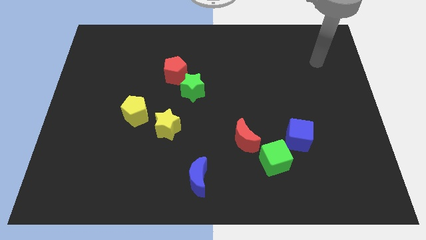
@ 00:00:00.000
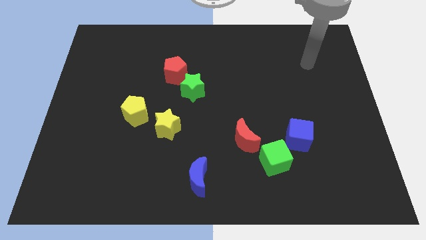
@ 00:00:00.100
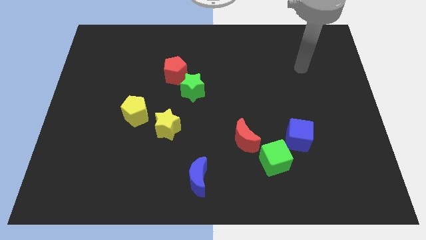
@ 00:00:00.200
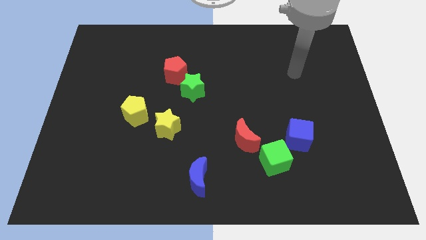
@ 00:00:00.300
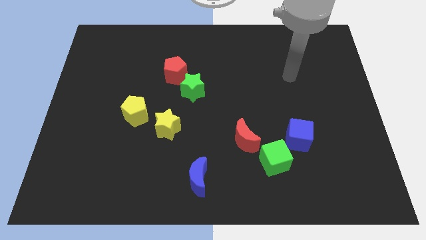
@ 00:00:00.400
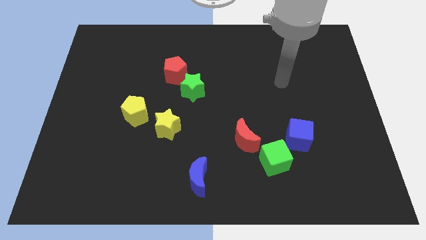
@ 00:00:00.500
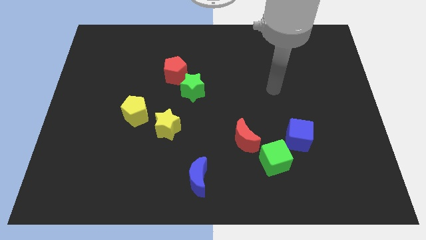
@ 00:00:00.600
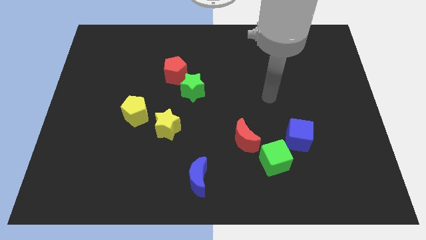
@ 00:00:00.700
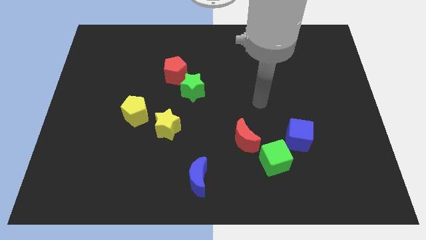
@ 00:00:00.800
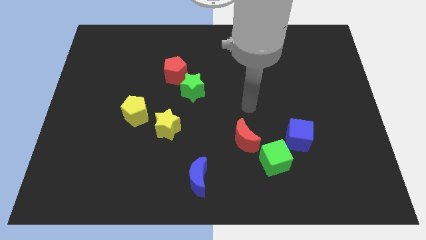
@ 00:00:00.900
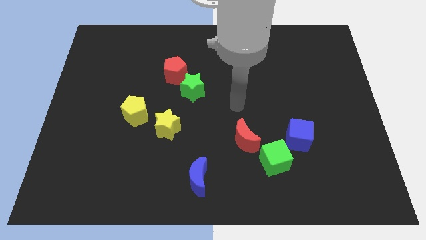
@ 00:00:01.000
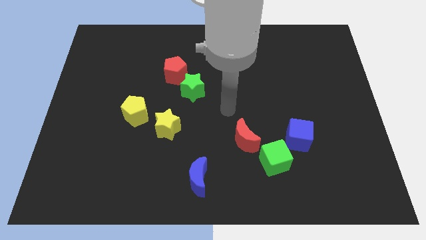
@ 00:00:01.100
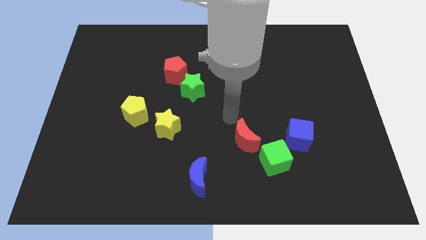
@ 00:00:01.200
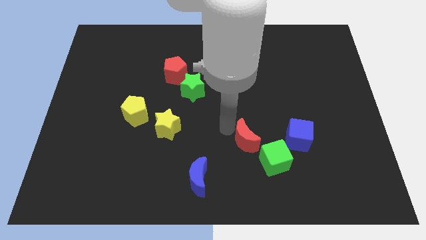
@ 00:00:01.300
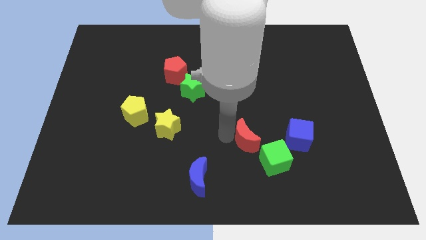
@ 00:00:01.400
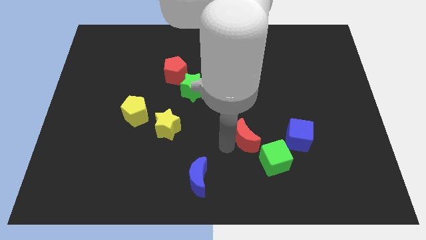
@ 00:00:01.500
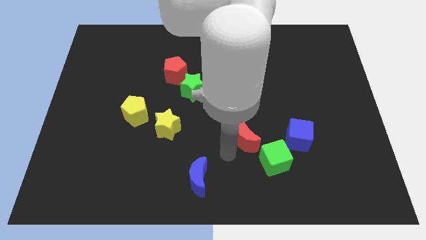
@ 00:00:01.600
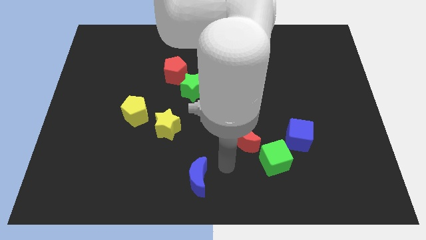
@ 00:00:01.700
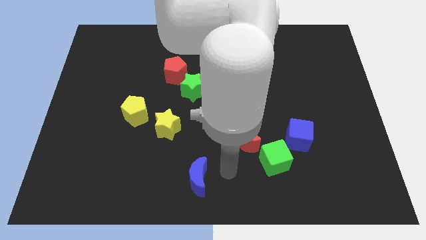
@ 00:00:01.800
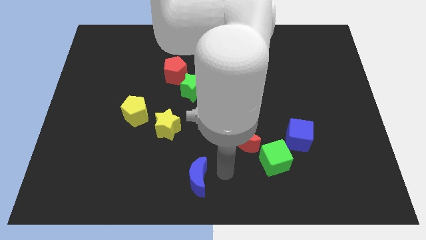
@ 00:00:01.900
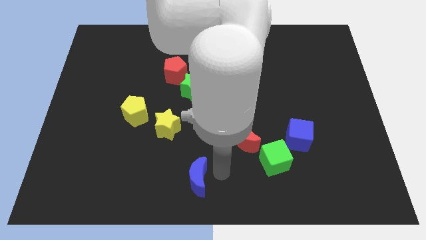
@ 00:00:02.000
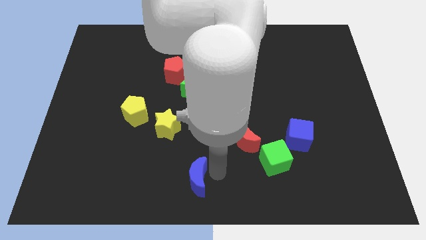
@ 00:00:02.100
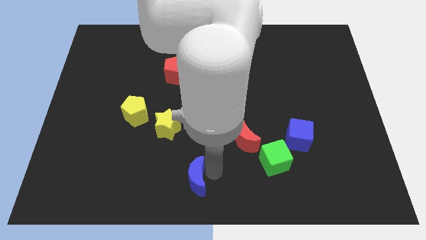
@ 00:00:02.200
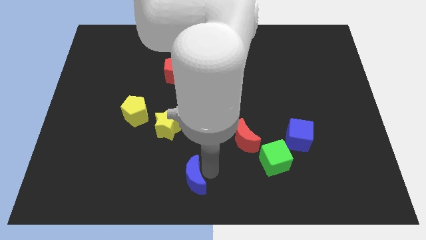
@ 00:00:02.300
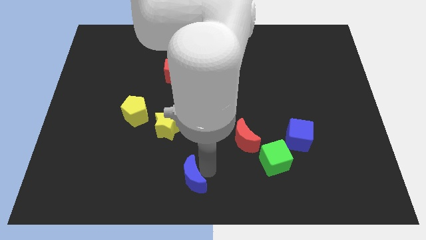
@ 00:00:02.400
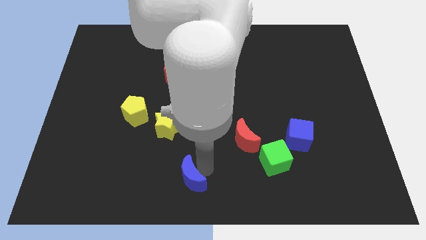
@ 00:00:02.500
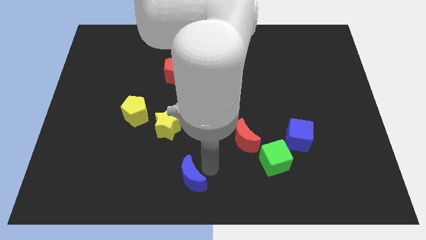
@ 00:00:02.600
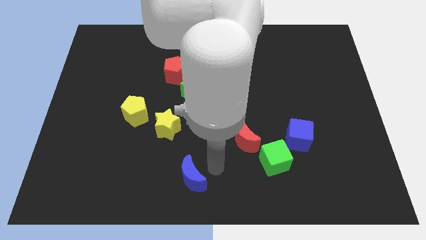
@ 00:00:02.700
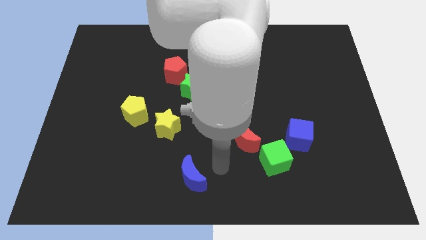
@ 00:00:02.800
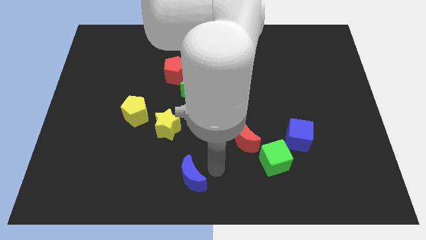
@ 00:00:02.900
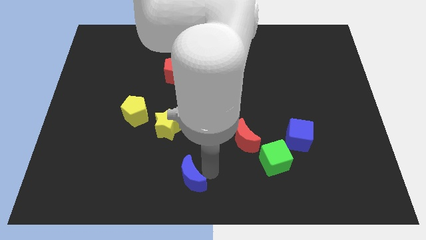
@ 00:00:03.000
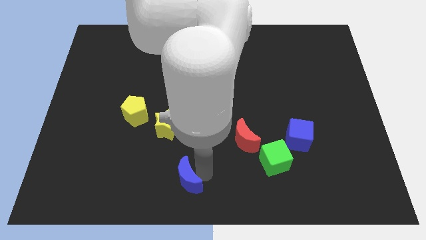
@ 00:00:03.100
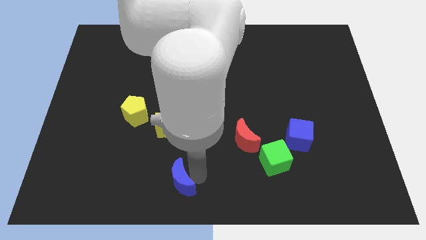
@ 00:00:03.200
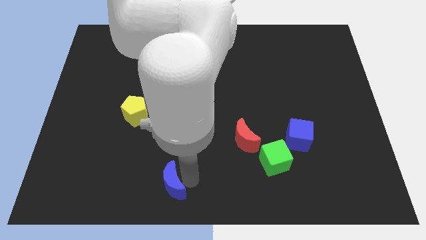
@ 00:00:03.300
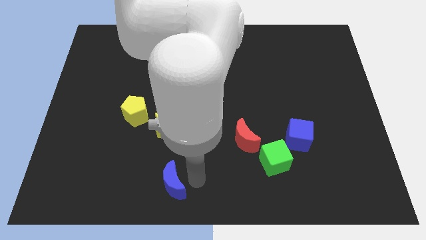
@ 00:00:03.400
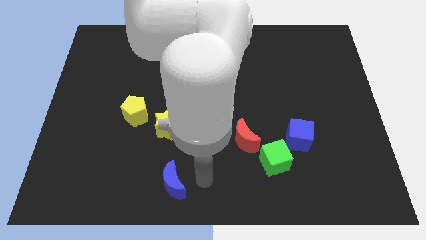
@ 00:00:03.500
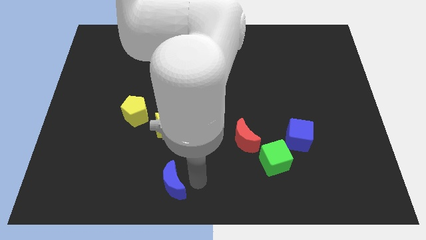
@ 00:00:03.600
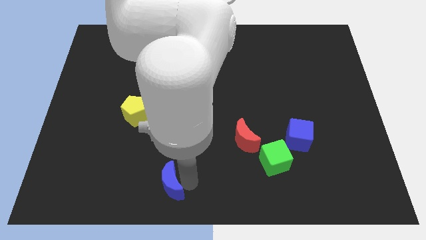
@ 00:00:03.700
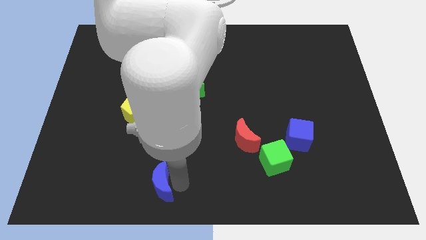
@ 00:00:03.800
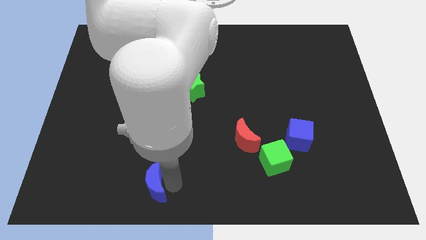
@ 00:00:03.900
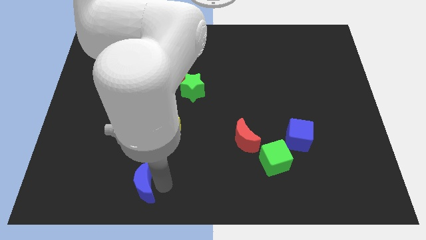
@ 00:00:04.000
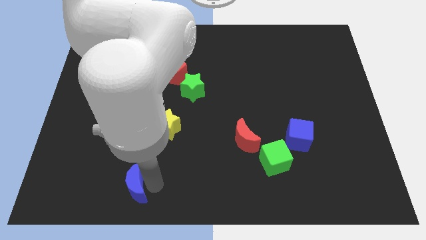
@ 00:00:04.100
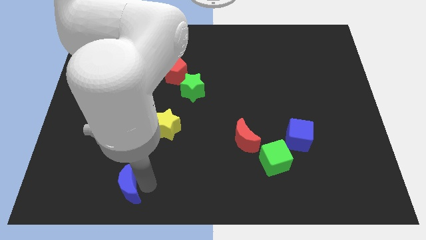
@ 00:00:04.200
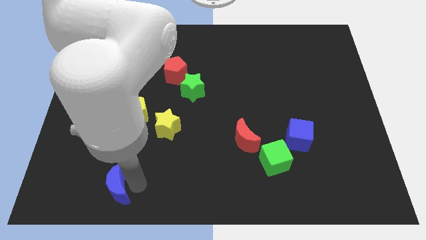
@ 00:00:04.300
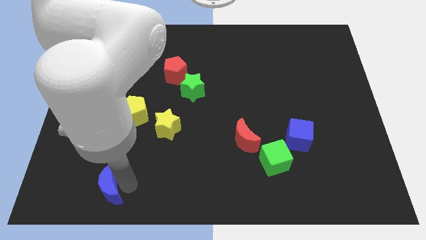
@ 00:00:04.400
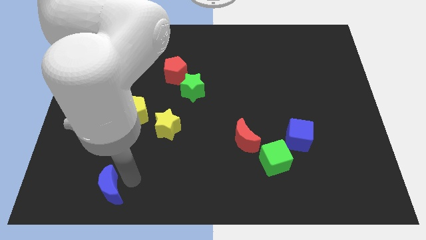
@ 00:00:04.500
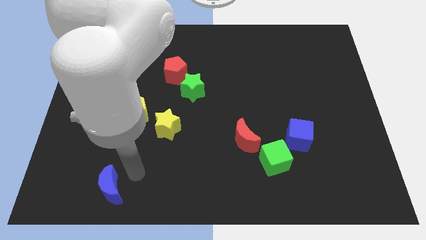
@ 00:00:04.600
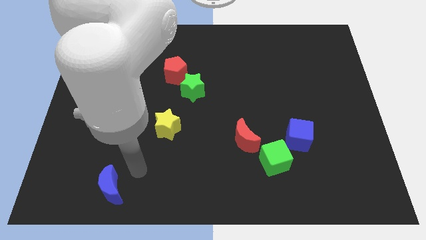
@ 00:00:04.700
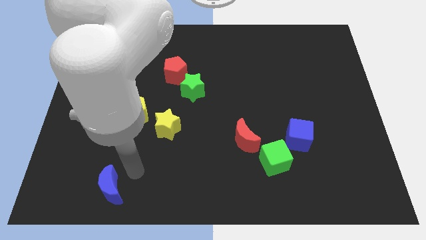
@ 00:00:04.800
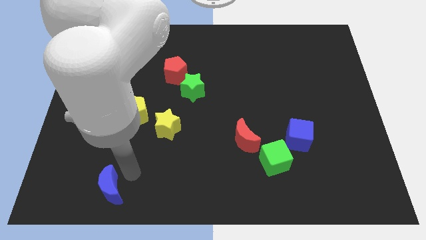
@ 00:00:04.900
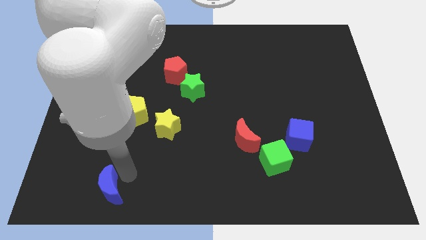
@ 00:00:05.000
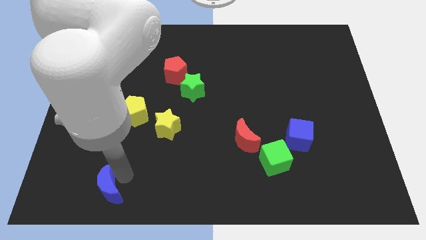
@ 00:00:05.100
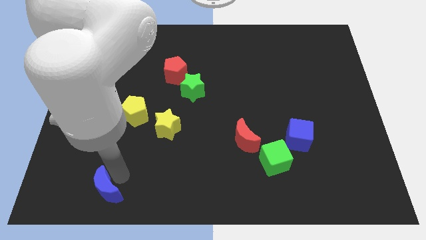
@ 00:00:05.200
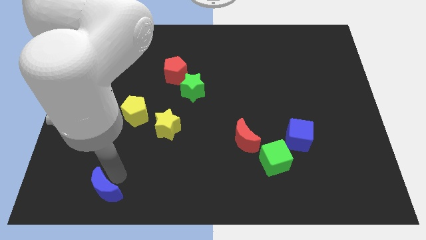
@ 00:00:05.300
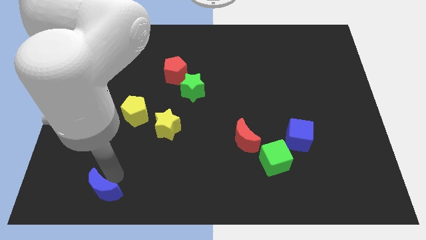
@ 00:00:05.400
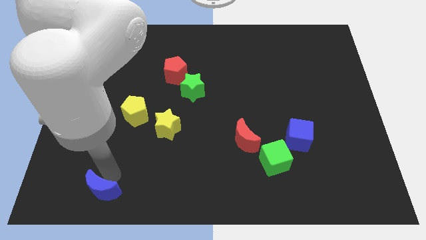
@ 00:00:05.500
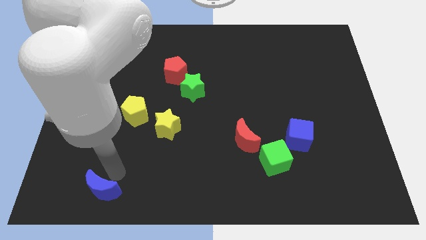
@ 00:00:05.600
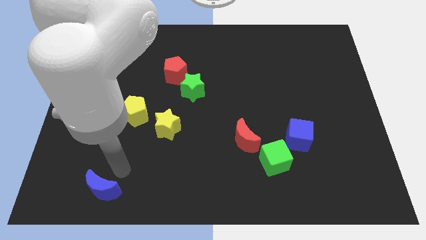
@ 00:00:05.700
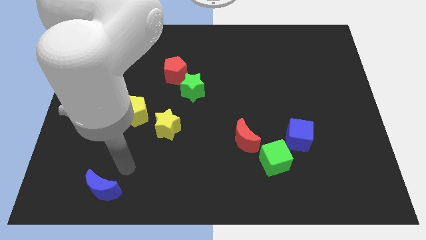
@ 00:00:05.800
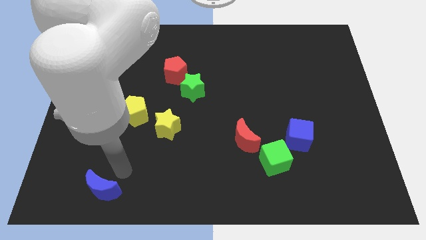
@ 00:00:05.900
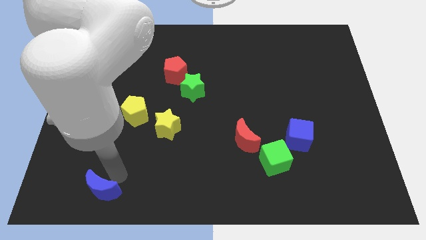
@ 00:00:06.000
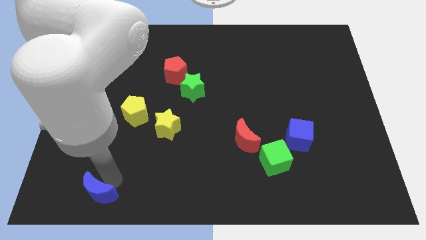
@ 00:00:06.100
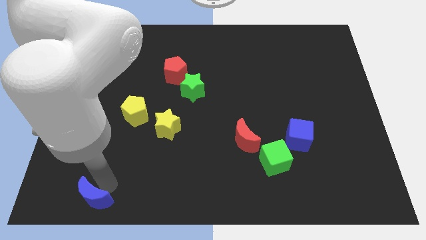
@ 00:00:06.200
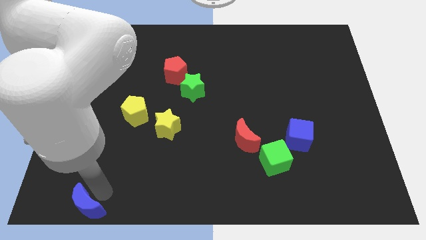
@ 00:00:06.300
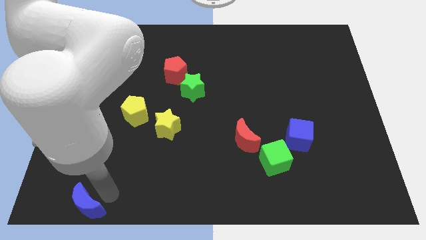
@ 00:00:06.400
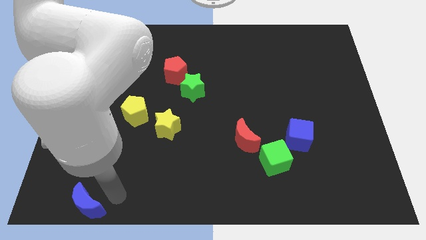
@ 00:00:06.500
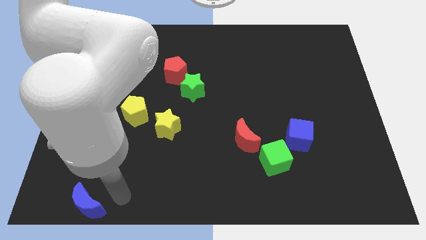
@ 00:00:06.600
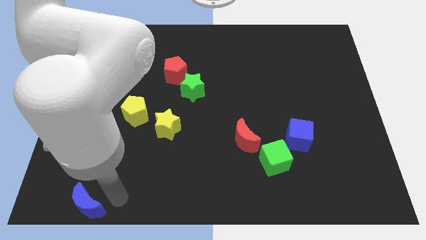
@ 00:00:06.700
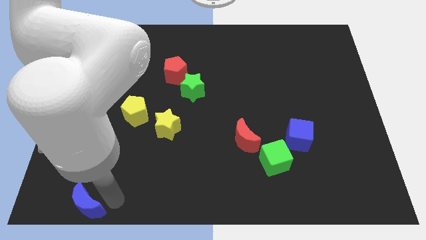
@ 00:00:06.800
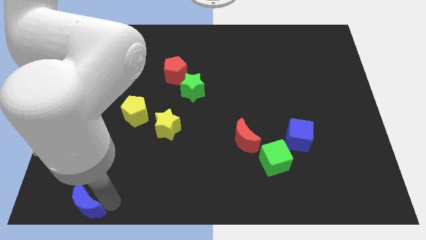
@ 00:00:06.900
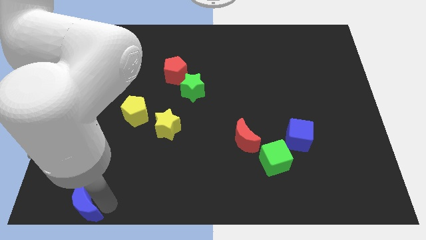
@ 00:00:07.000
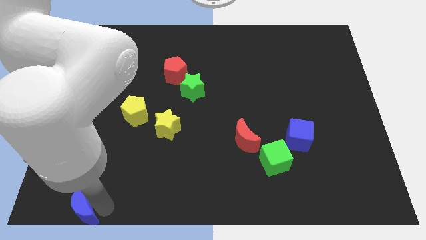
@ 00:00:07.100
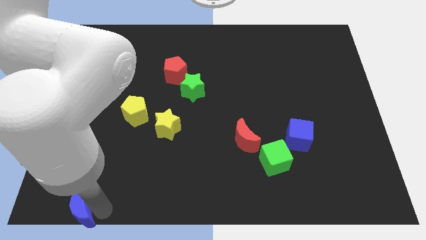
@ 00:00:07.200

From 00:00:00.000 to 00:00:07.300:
slide the blue moon to the bottom left corner
